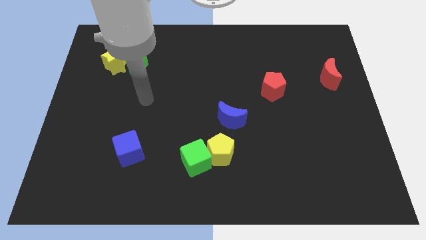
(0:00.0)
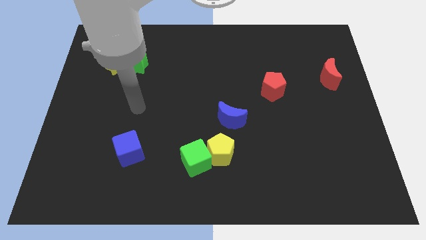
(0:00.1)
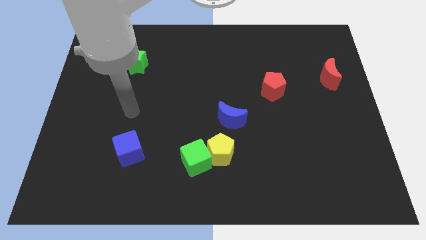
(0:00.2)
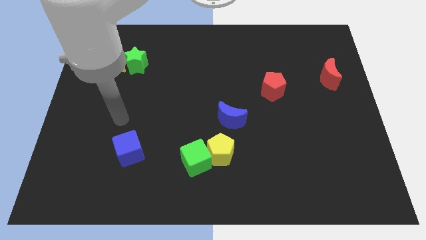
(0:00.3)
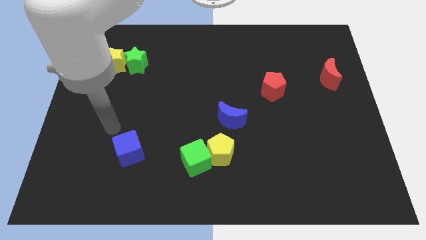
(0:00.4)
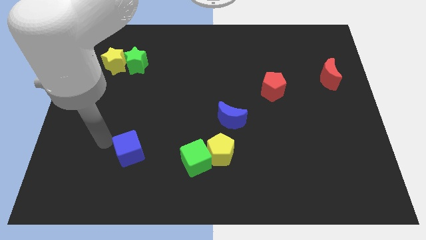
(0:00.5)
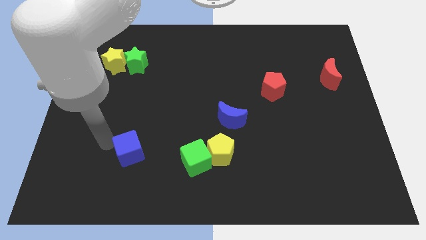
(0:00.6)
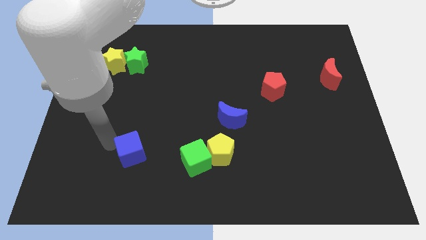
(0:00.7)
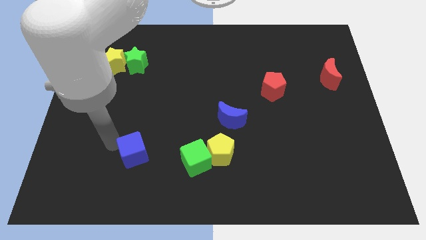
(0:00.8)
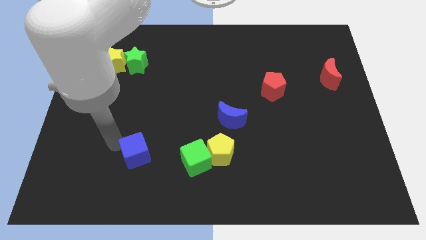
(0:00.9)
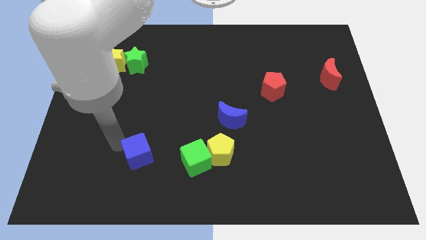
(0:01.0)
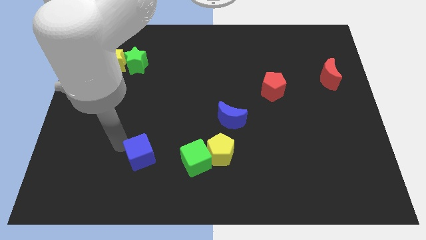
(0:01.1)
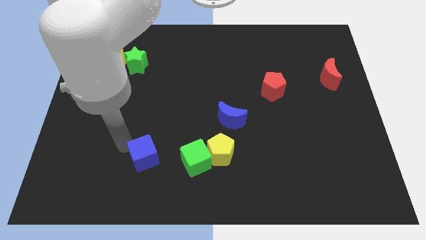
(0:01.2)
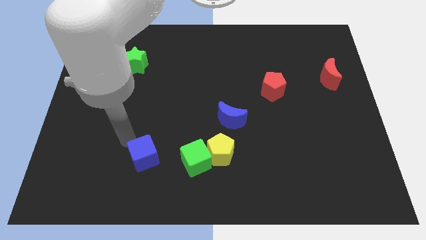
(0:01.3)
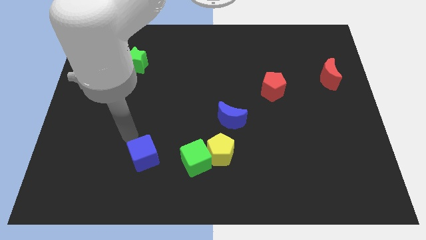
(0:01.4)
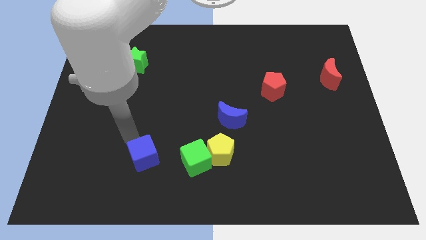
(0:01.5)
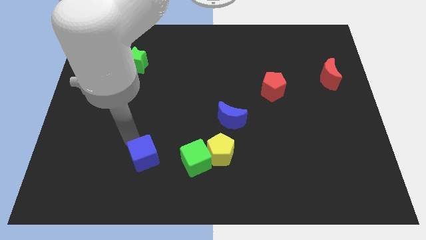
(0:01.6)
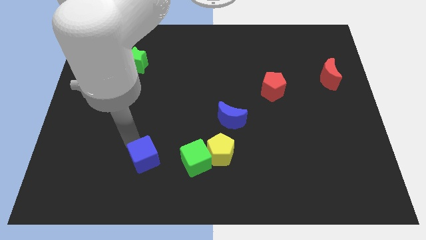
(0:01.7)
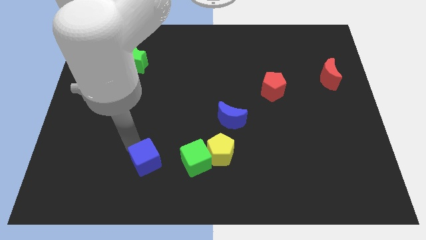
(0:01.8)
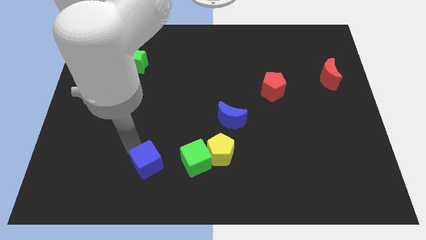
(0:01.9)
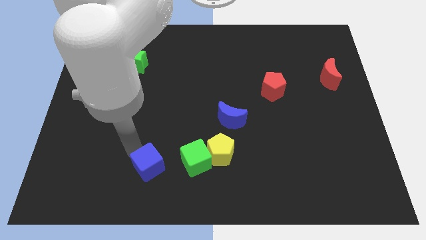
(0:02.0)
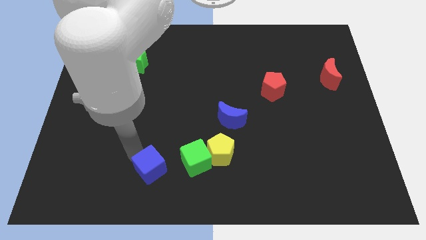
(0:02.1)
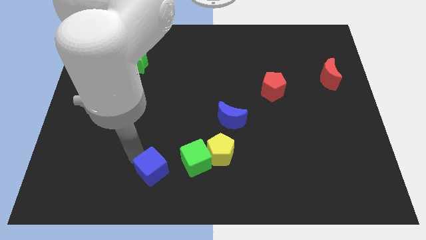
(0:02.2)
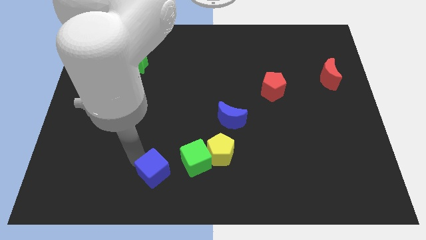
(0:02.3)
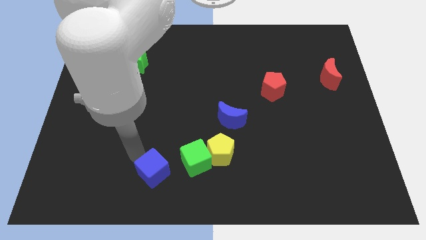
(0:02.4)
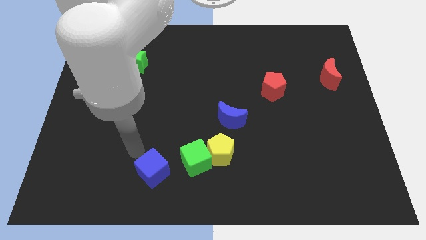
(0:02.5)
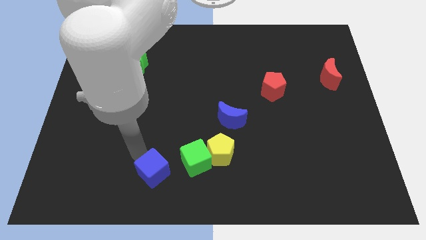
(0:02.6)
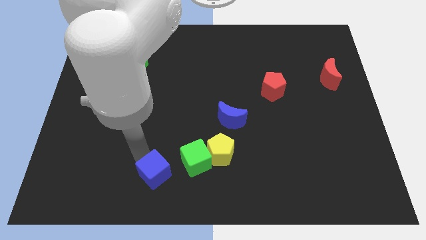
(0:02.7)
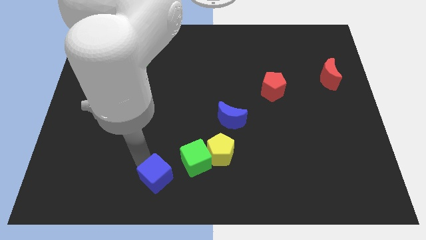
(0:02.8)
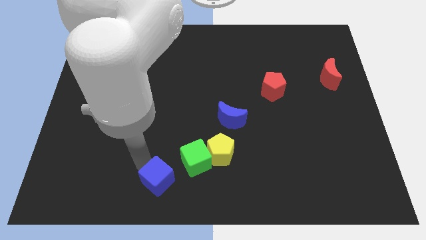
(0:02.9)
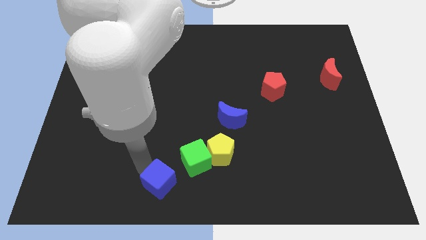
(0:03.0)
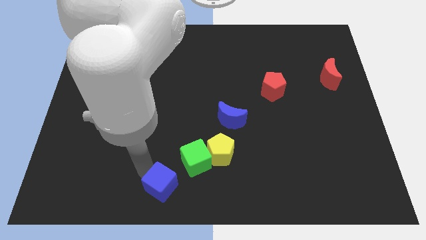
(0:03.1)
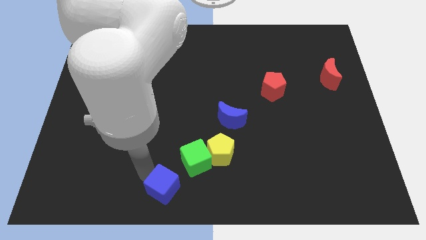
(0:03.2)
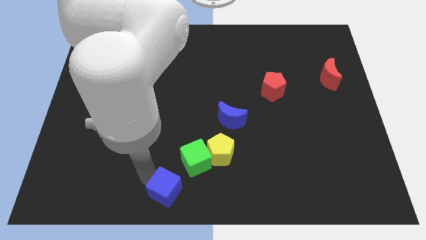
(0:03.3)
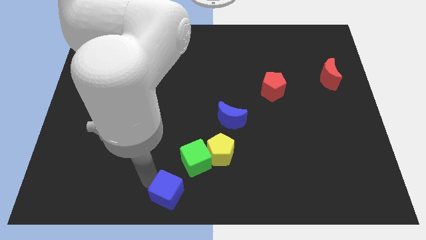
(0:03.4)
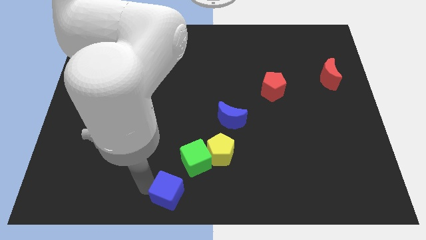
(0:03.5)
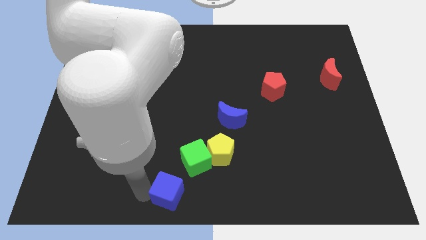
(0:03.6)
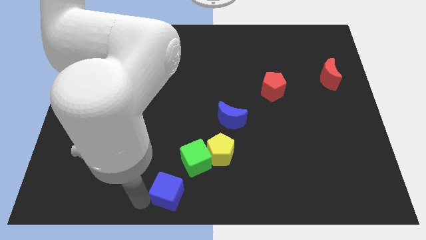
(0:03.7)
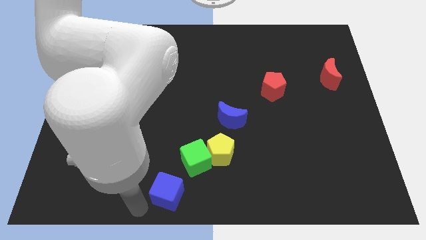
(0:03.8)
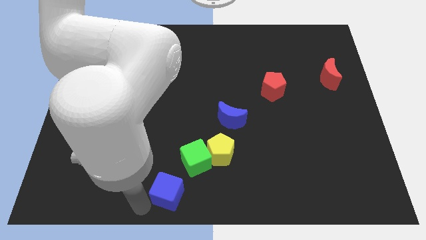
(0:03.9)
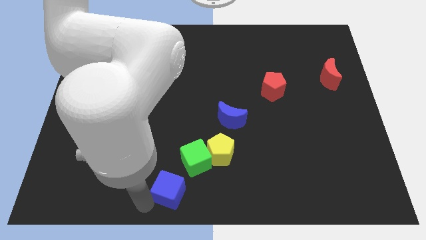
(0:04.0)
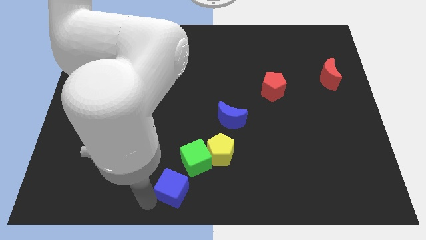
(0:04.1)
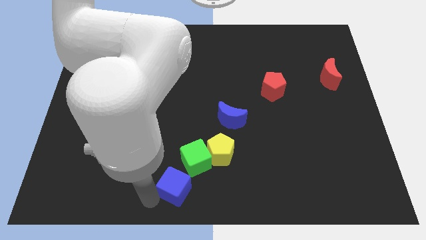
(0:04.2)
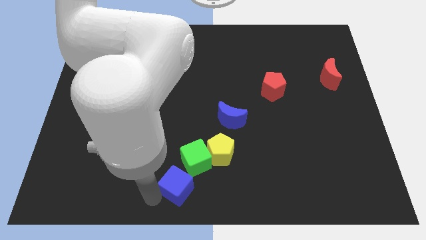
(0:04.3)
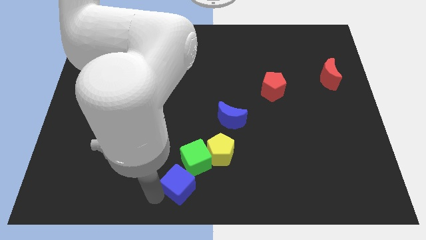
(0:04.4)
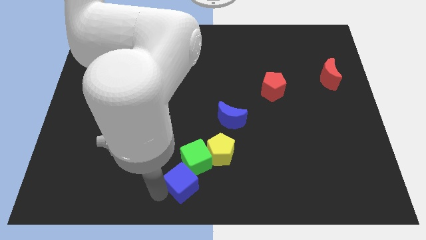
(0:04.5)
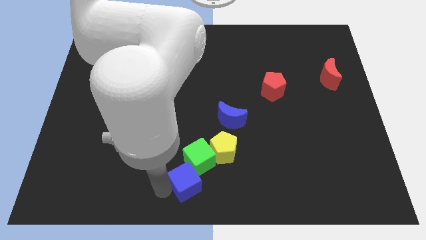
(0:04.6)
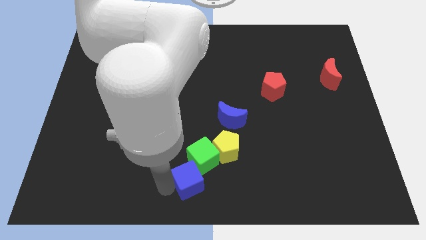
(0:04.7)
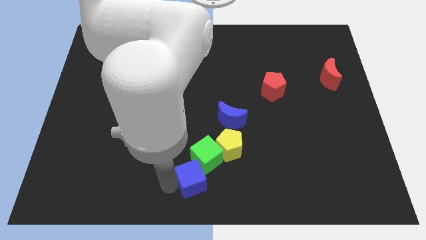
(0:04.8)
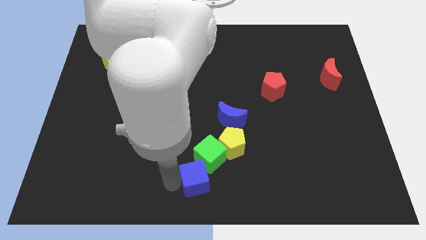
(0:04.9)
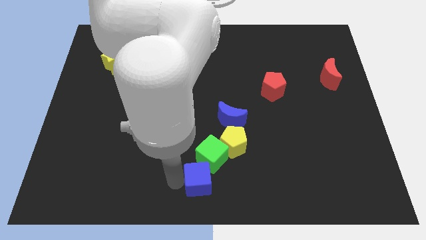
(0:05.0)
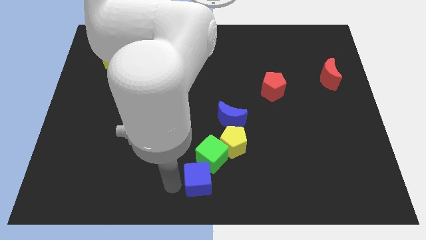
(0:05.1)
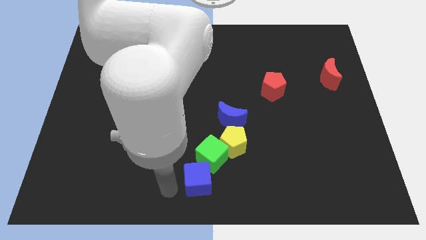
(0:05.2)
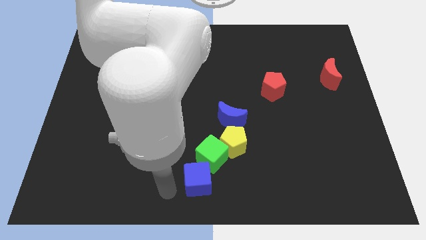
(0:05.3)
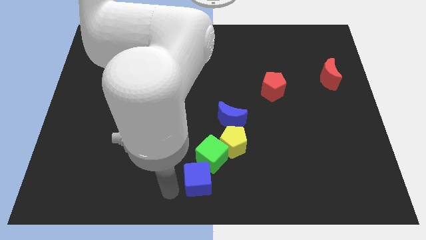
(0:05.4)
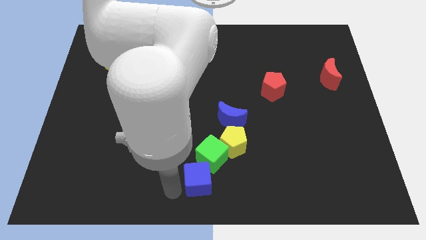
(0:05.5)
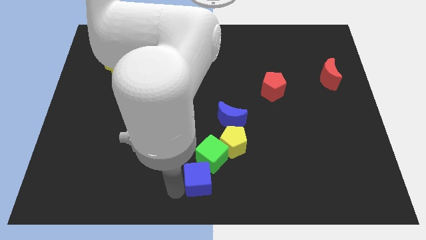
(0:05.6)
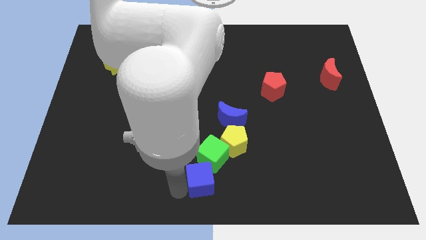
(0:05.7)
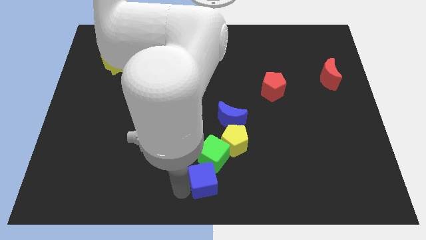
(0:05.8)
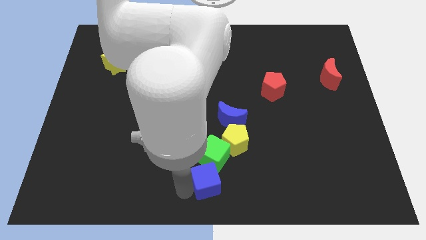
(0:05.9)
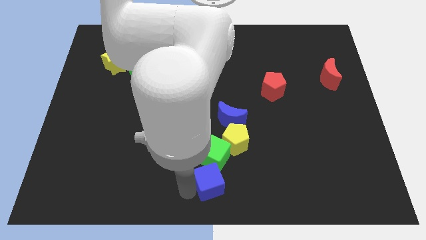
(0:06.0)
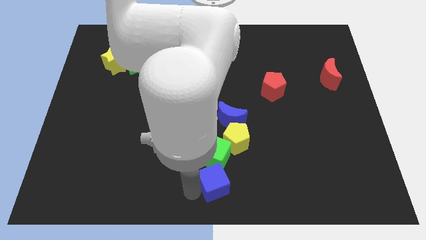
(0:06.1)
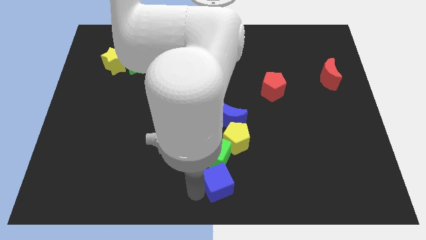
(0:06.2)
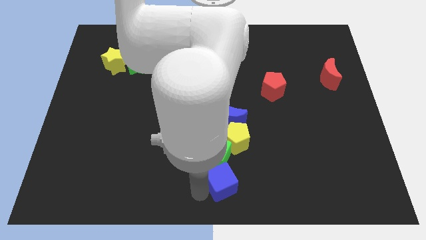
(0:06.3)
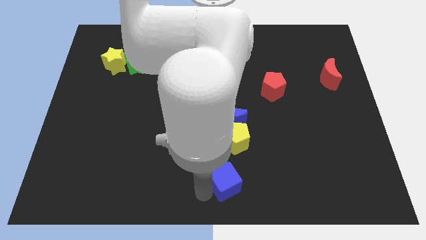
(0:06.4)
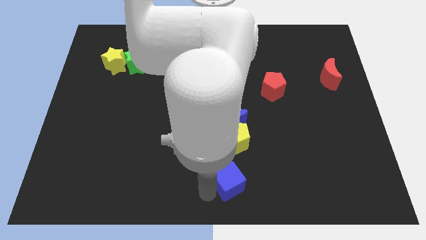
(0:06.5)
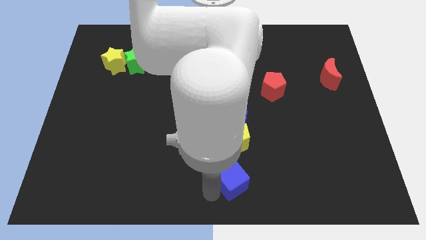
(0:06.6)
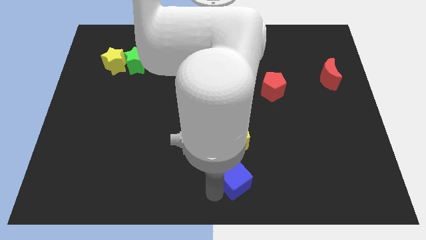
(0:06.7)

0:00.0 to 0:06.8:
move the blue cube right

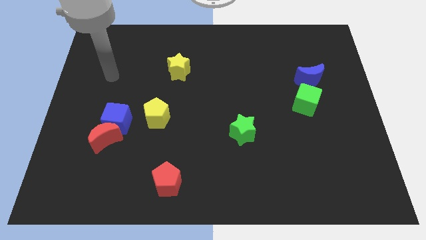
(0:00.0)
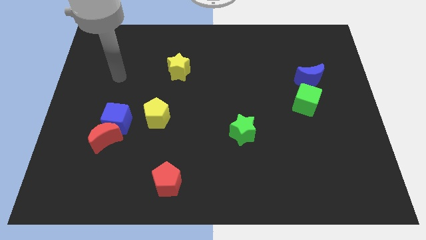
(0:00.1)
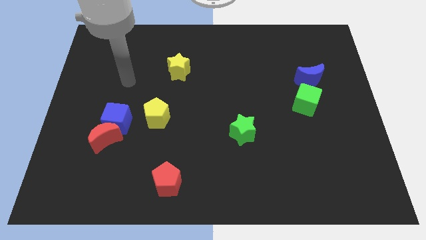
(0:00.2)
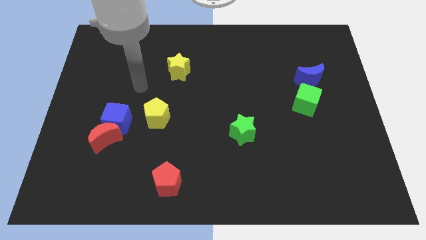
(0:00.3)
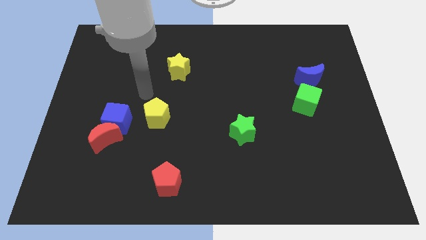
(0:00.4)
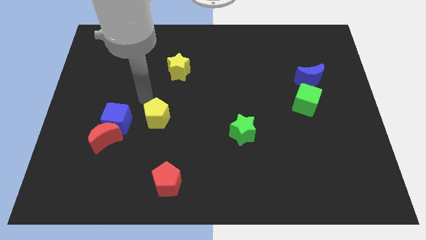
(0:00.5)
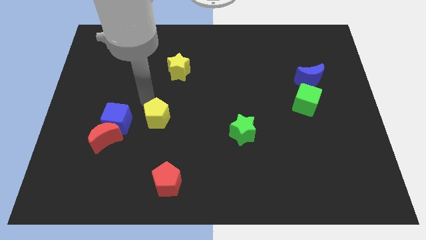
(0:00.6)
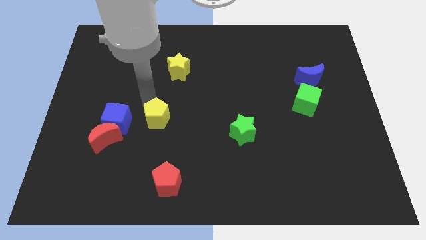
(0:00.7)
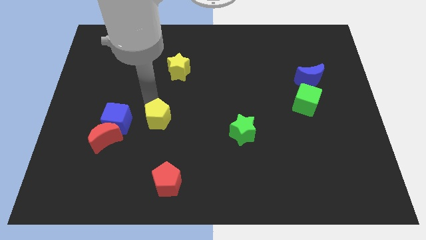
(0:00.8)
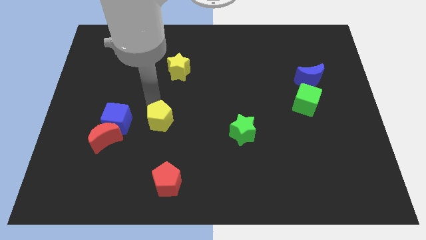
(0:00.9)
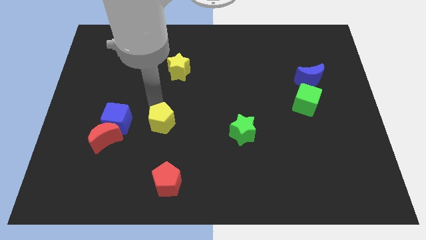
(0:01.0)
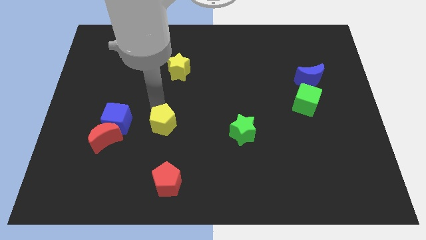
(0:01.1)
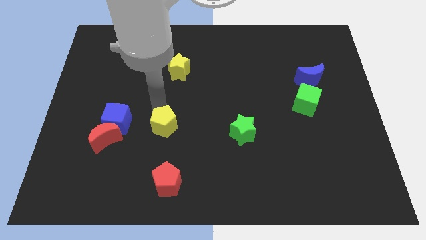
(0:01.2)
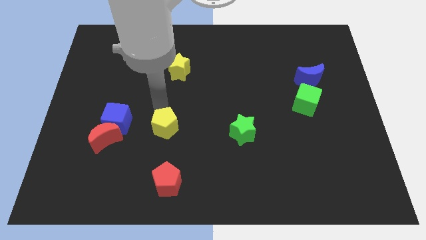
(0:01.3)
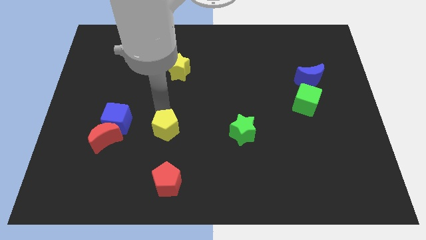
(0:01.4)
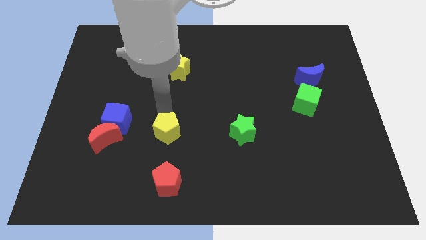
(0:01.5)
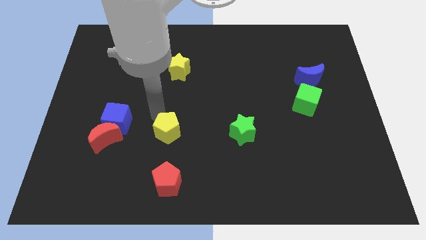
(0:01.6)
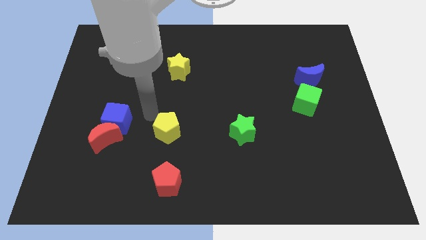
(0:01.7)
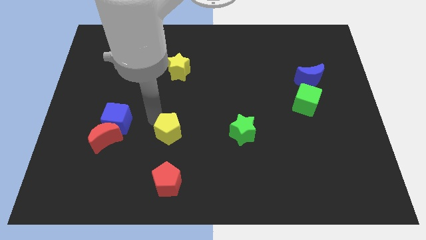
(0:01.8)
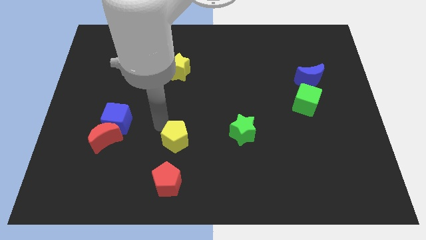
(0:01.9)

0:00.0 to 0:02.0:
slightly slide the yellow pentagon down and right
